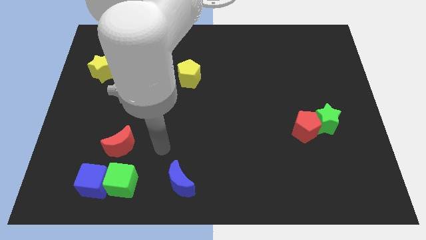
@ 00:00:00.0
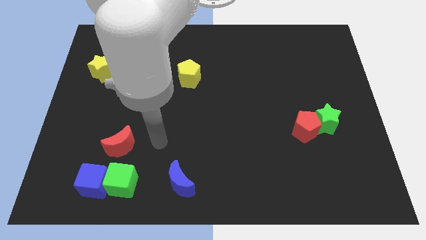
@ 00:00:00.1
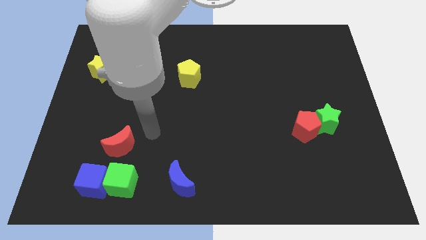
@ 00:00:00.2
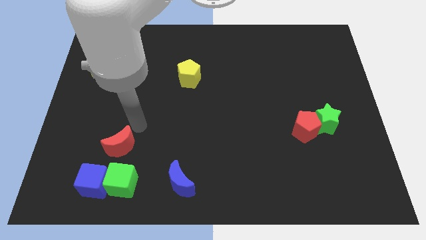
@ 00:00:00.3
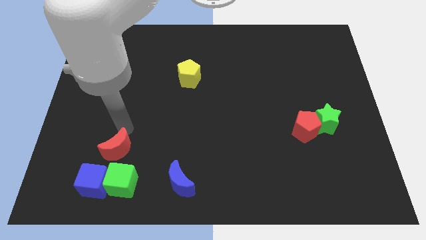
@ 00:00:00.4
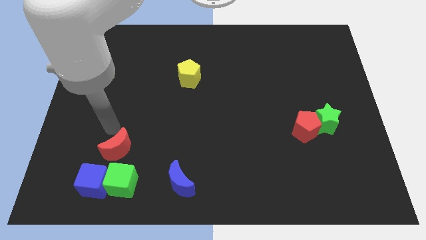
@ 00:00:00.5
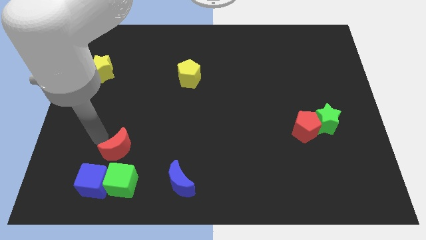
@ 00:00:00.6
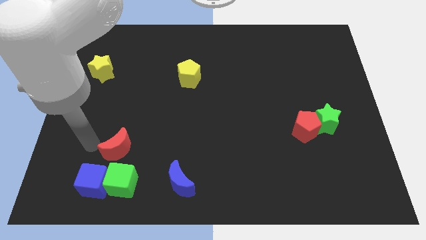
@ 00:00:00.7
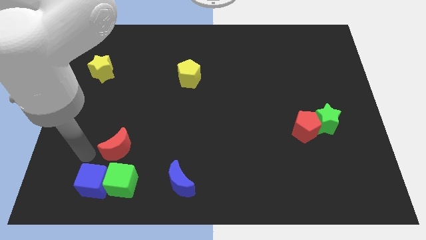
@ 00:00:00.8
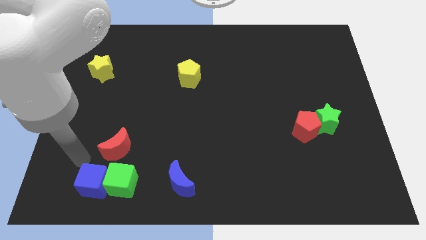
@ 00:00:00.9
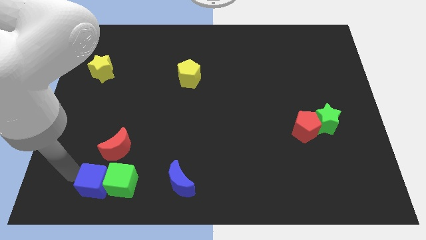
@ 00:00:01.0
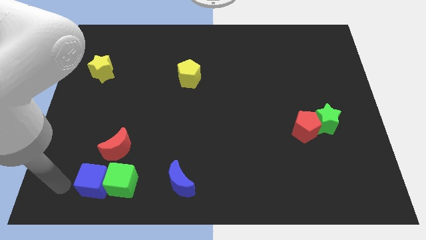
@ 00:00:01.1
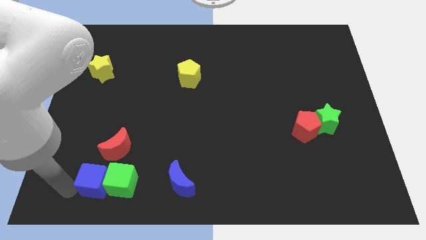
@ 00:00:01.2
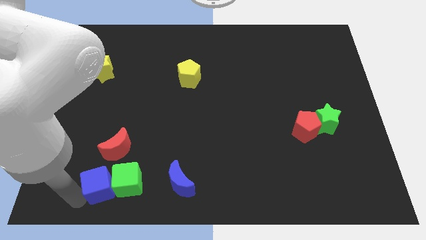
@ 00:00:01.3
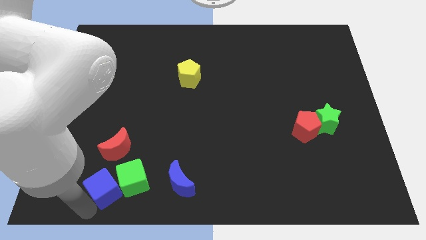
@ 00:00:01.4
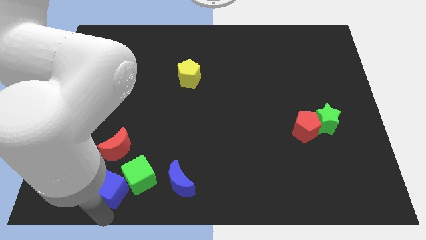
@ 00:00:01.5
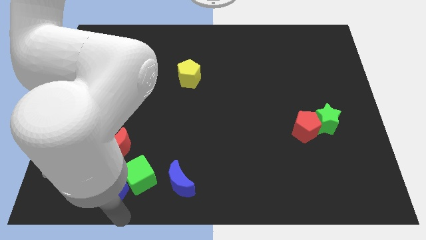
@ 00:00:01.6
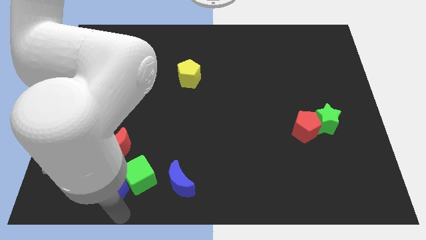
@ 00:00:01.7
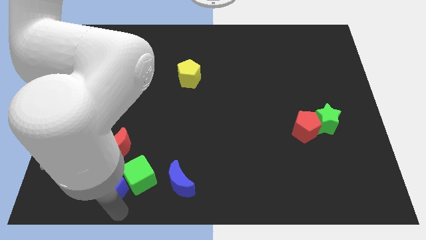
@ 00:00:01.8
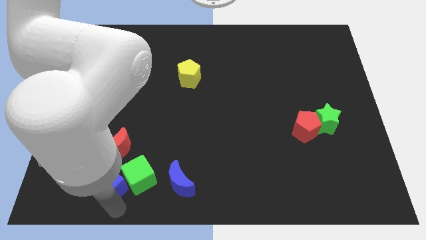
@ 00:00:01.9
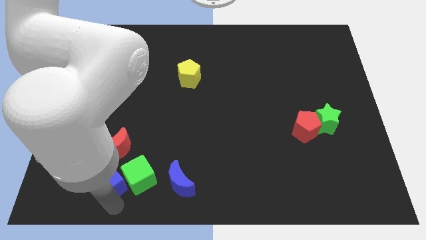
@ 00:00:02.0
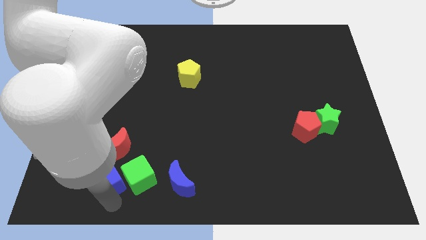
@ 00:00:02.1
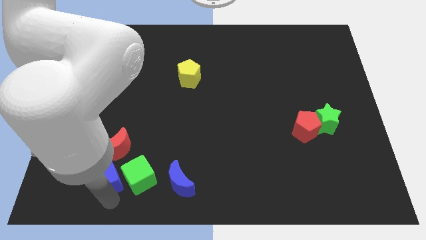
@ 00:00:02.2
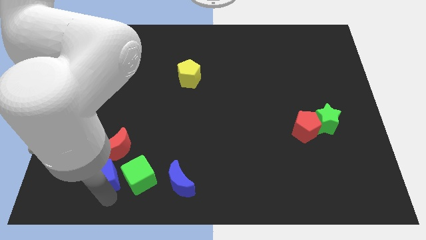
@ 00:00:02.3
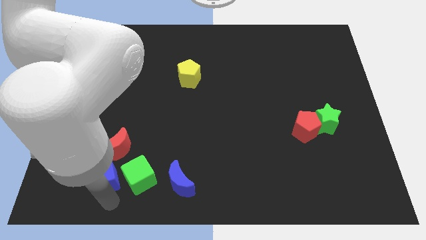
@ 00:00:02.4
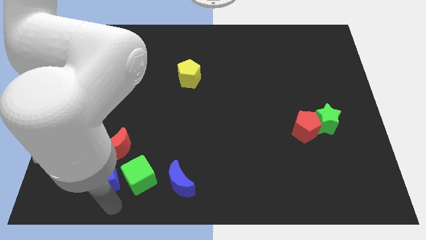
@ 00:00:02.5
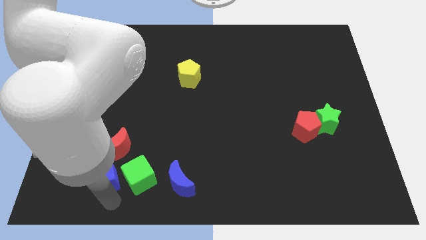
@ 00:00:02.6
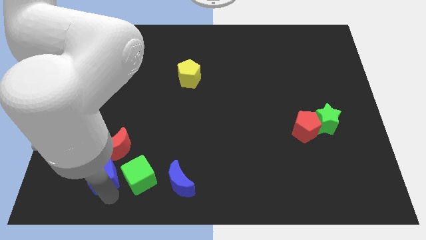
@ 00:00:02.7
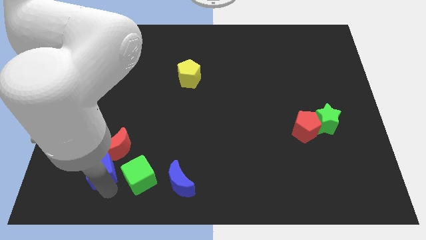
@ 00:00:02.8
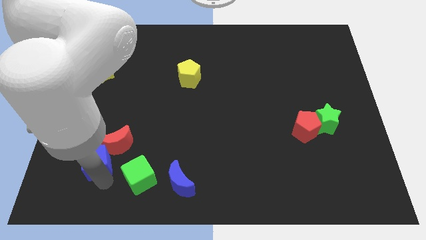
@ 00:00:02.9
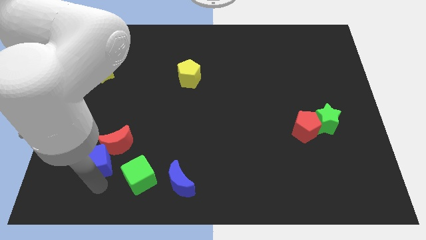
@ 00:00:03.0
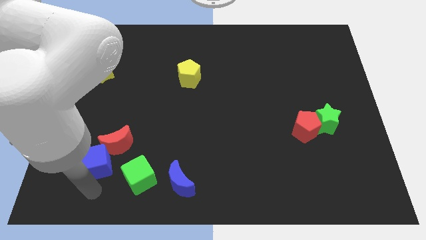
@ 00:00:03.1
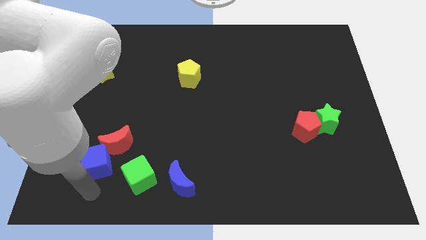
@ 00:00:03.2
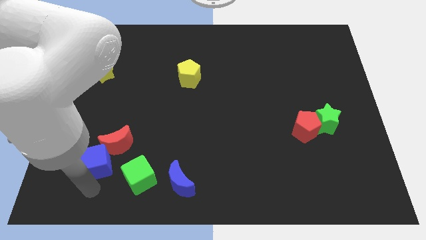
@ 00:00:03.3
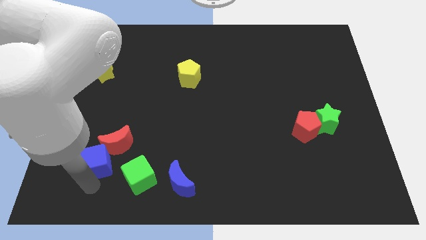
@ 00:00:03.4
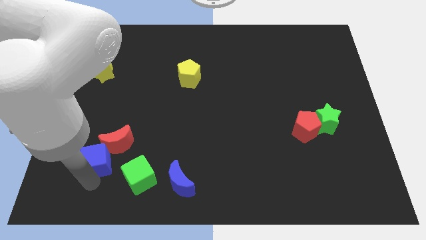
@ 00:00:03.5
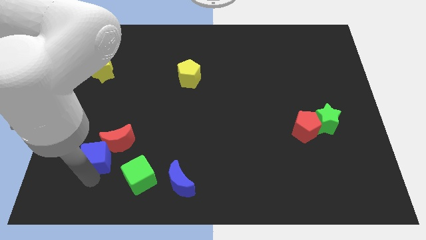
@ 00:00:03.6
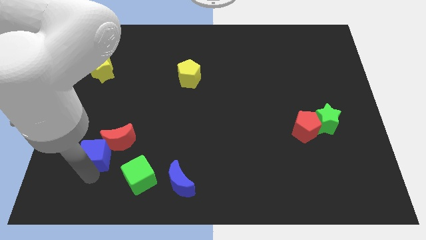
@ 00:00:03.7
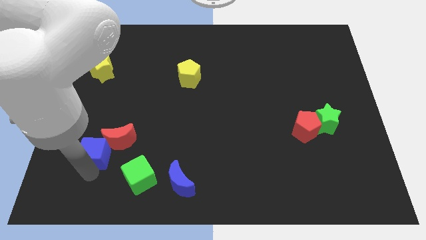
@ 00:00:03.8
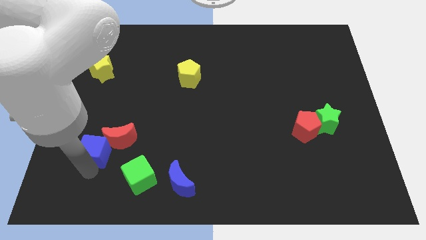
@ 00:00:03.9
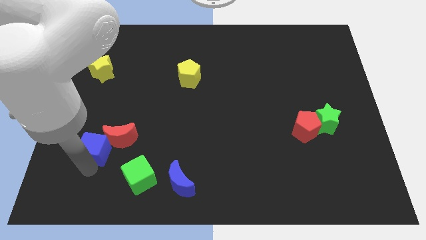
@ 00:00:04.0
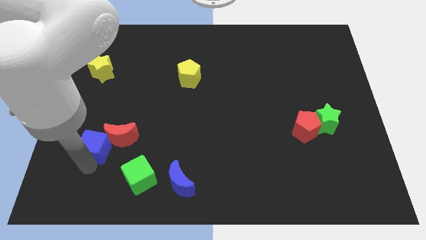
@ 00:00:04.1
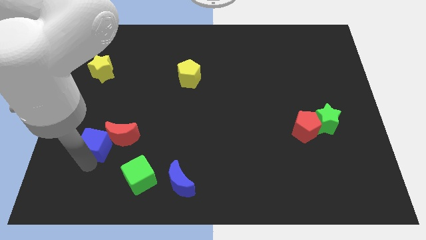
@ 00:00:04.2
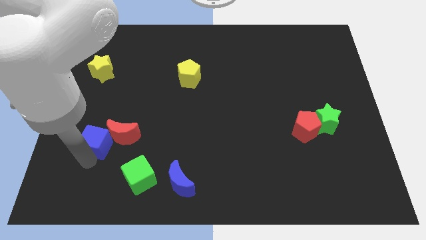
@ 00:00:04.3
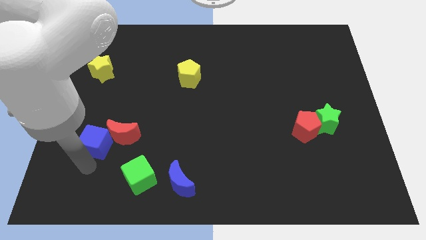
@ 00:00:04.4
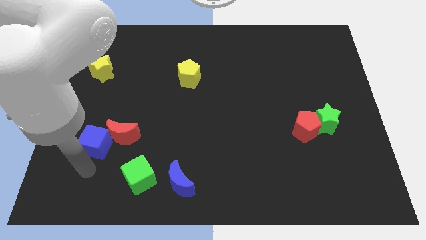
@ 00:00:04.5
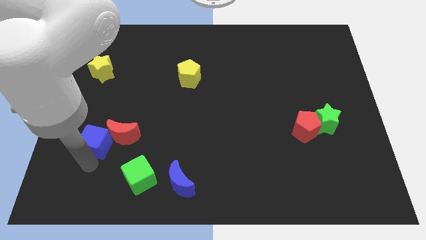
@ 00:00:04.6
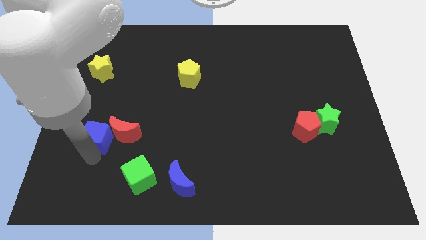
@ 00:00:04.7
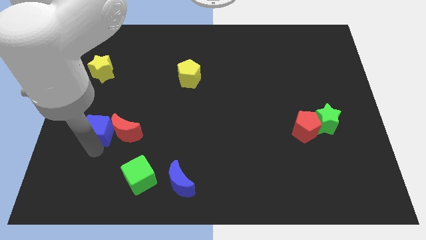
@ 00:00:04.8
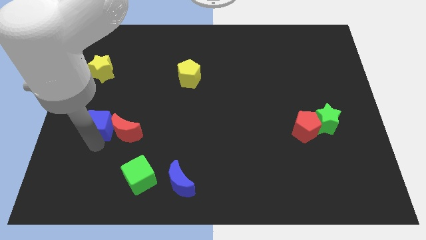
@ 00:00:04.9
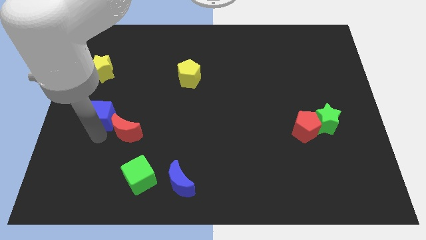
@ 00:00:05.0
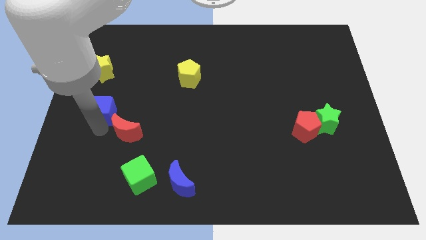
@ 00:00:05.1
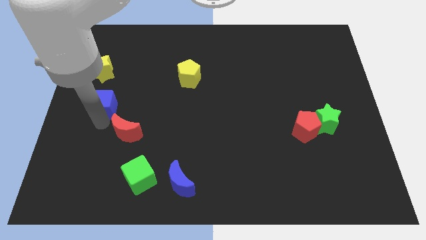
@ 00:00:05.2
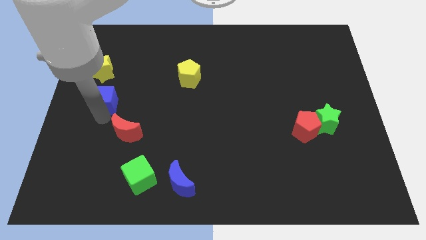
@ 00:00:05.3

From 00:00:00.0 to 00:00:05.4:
slide the blue cube up

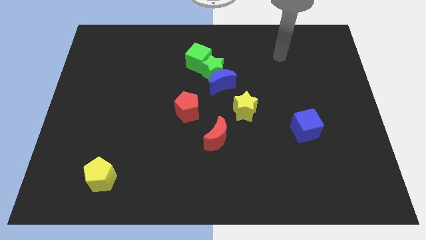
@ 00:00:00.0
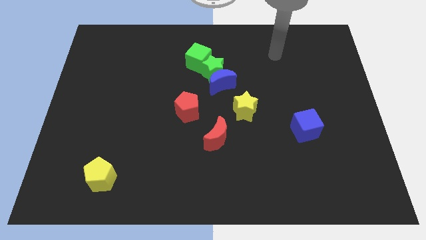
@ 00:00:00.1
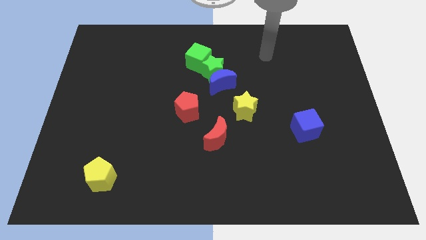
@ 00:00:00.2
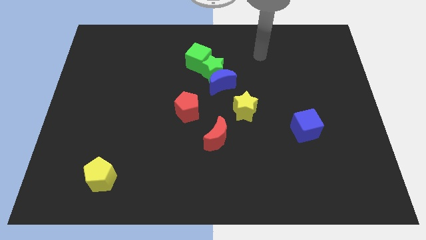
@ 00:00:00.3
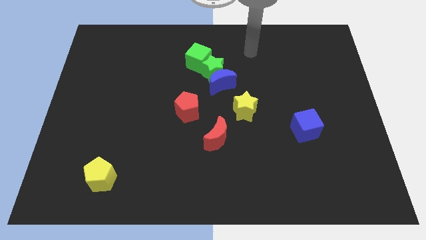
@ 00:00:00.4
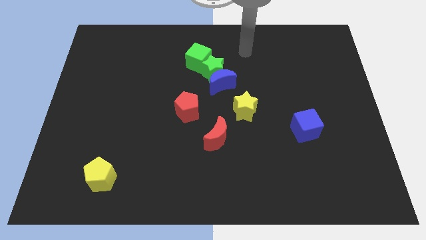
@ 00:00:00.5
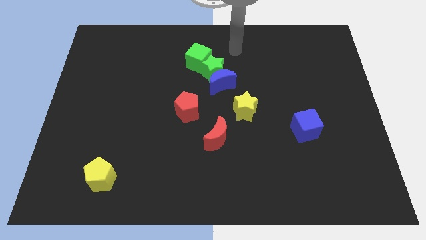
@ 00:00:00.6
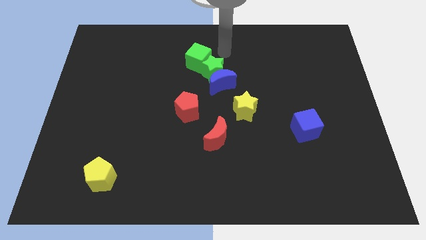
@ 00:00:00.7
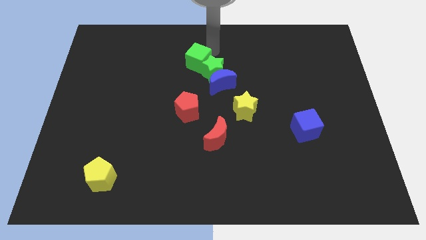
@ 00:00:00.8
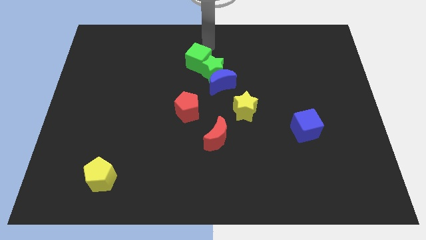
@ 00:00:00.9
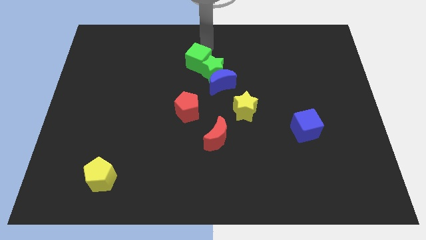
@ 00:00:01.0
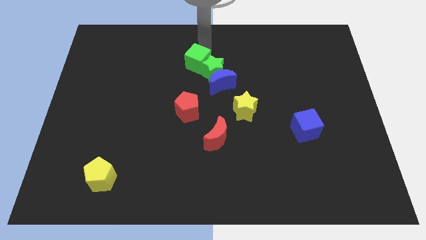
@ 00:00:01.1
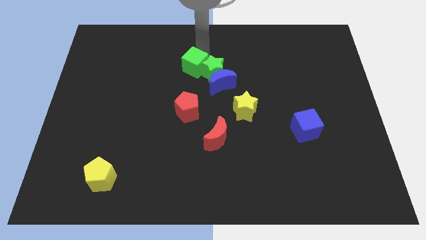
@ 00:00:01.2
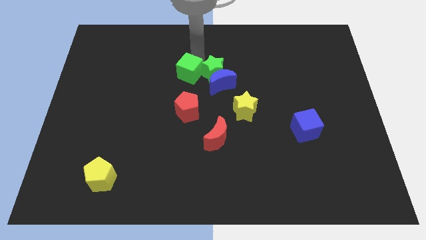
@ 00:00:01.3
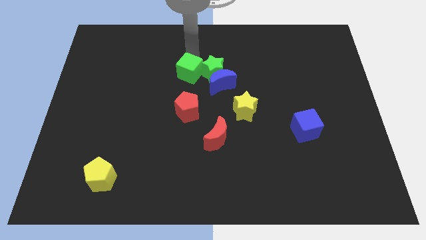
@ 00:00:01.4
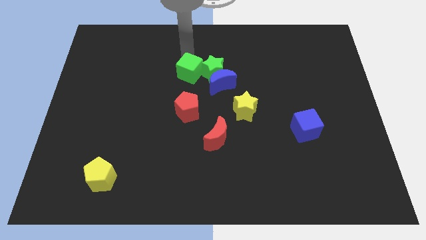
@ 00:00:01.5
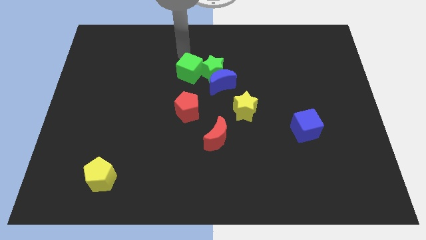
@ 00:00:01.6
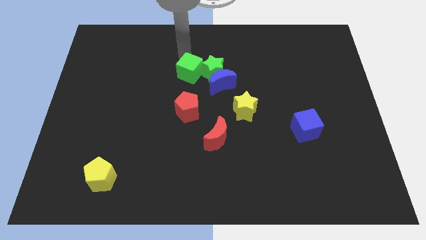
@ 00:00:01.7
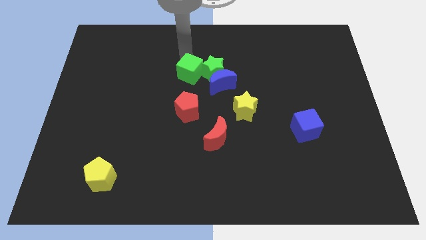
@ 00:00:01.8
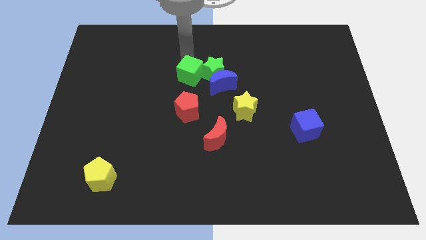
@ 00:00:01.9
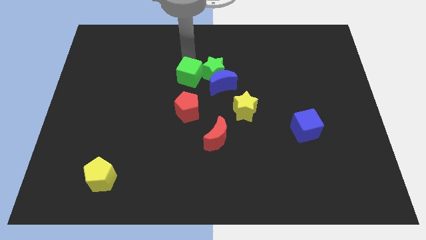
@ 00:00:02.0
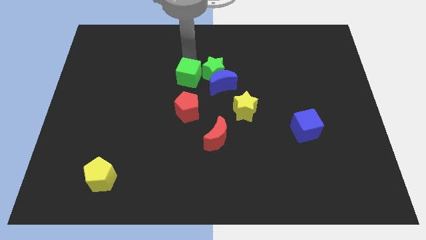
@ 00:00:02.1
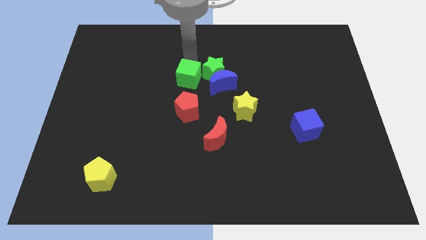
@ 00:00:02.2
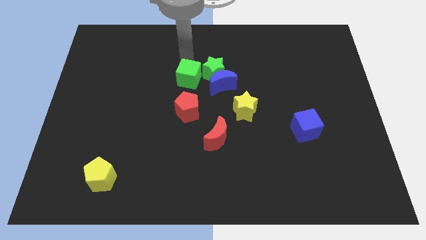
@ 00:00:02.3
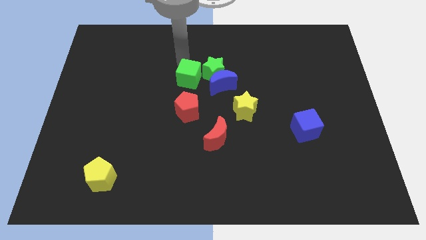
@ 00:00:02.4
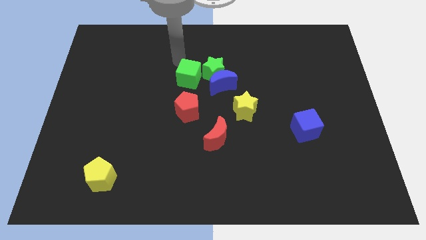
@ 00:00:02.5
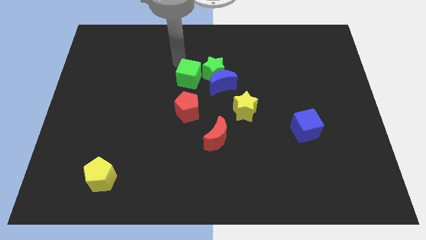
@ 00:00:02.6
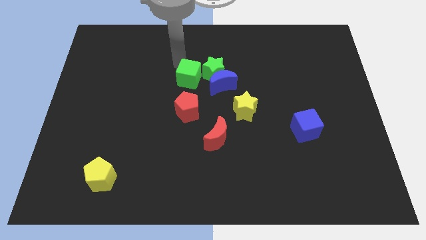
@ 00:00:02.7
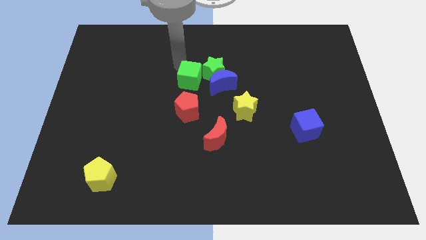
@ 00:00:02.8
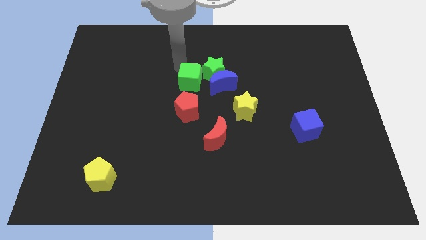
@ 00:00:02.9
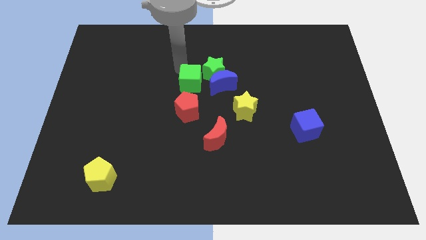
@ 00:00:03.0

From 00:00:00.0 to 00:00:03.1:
move the green cube downwards somewhat
